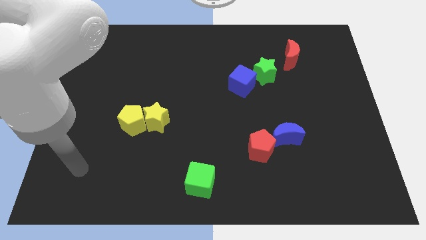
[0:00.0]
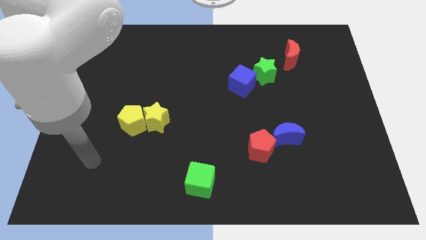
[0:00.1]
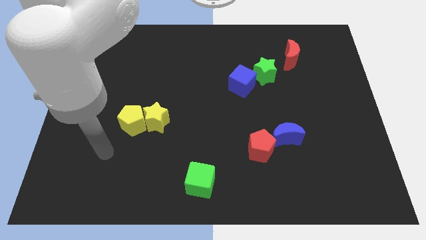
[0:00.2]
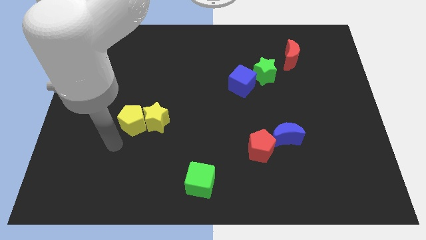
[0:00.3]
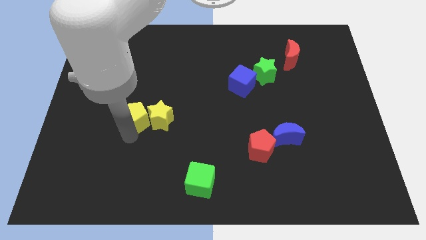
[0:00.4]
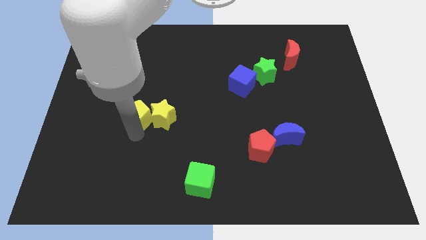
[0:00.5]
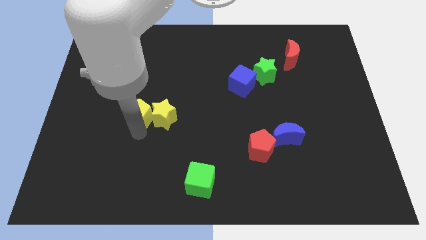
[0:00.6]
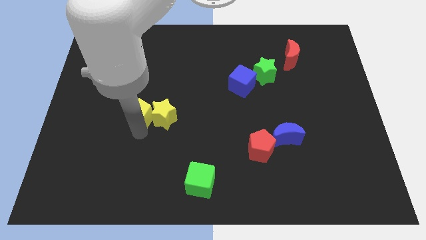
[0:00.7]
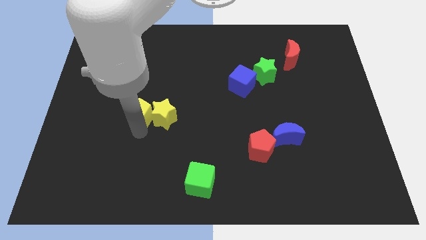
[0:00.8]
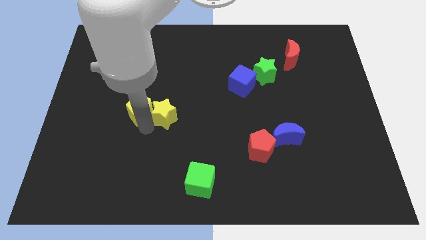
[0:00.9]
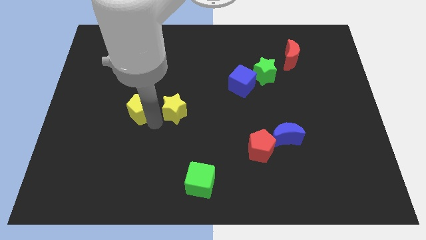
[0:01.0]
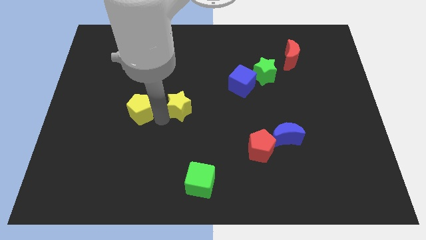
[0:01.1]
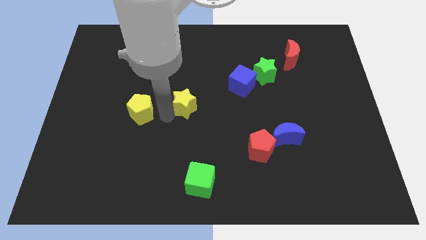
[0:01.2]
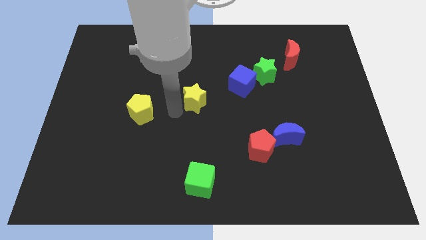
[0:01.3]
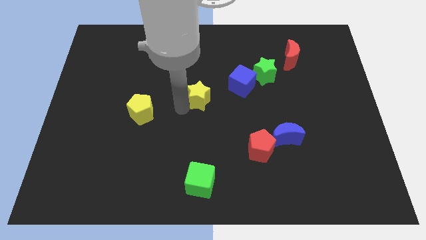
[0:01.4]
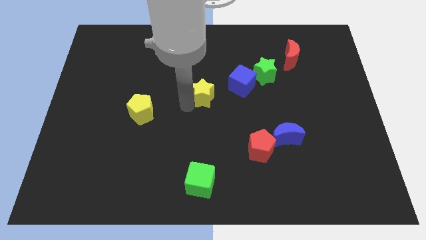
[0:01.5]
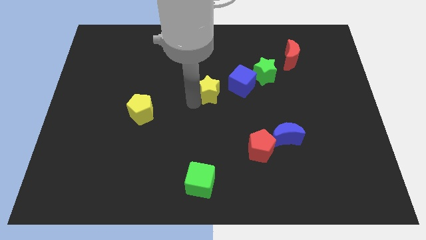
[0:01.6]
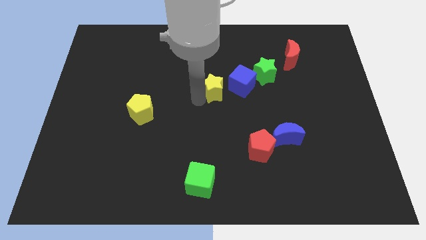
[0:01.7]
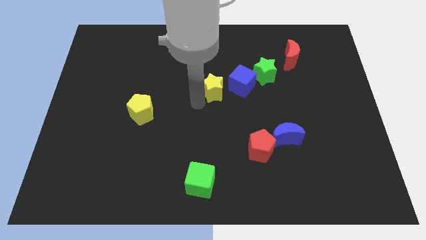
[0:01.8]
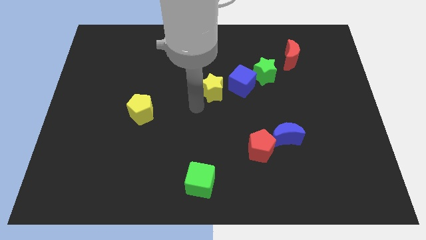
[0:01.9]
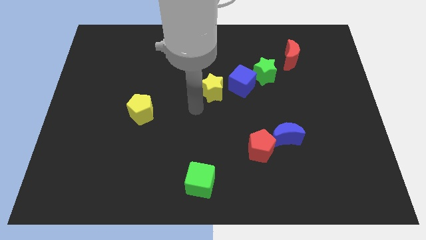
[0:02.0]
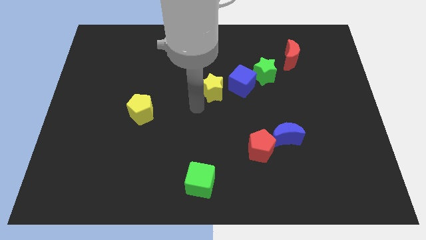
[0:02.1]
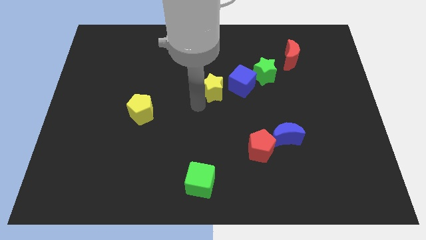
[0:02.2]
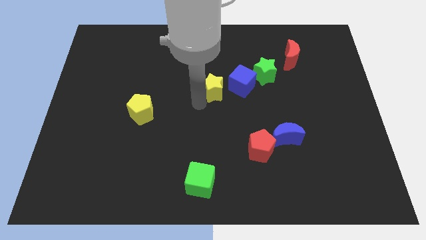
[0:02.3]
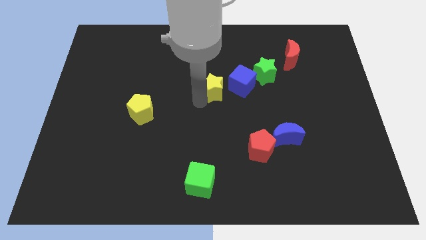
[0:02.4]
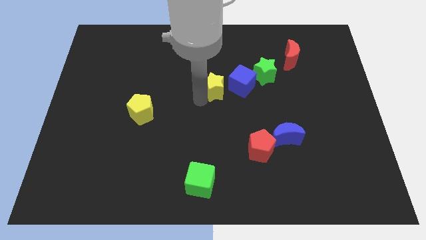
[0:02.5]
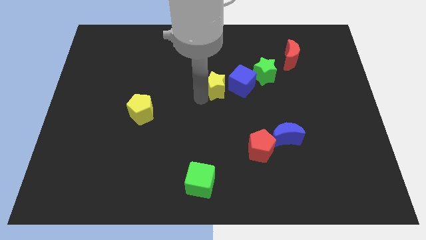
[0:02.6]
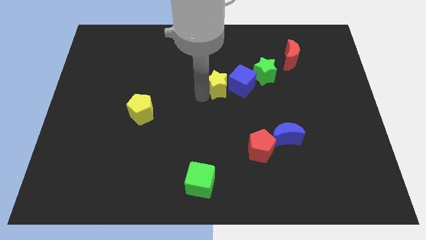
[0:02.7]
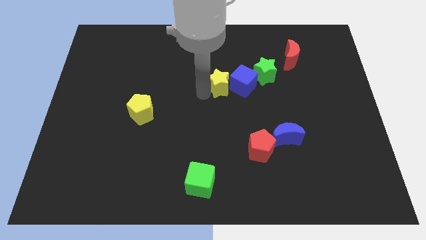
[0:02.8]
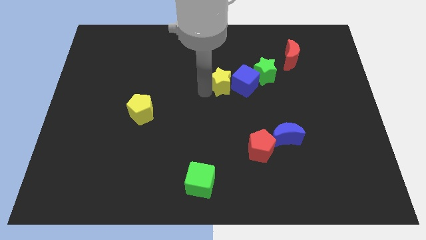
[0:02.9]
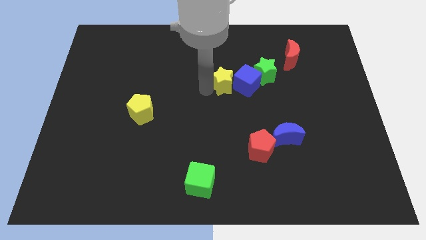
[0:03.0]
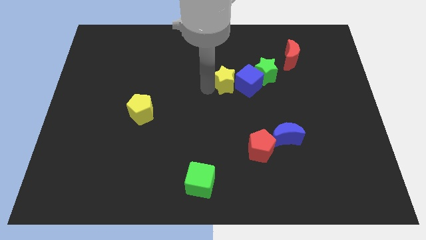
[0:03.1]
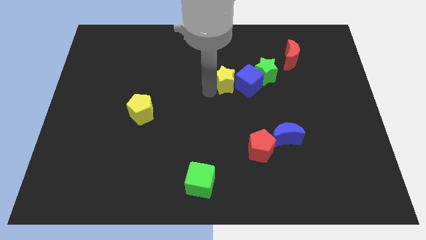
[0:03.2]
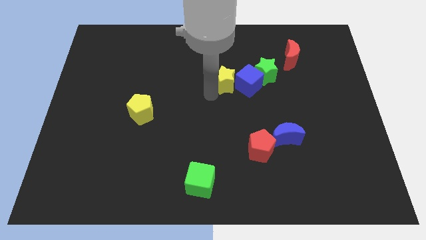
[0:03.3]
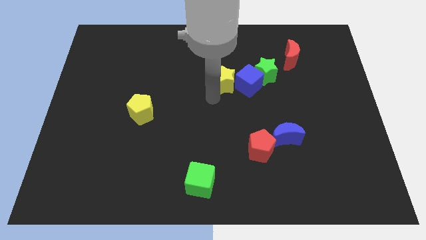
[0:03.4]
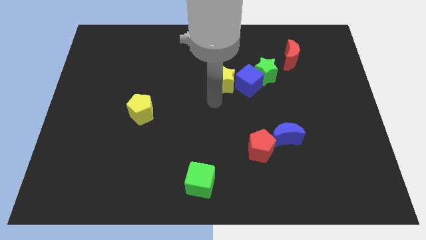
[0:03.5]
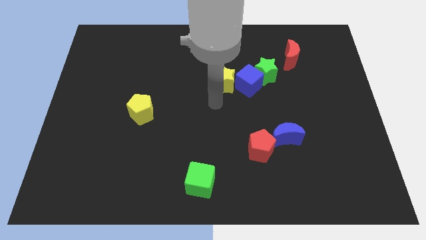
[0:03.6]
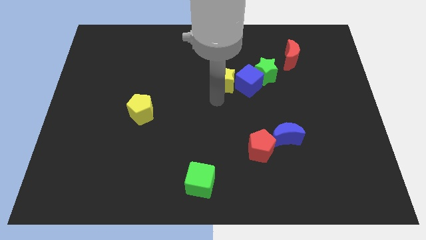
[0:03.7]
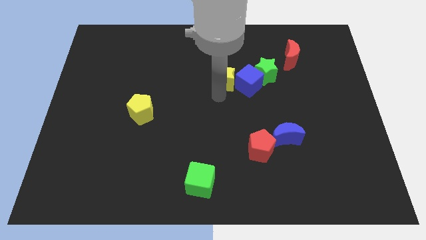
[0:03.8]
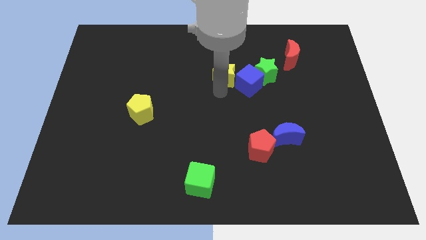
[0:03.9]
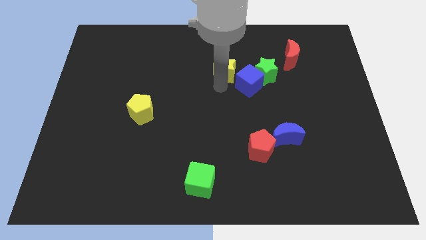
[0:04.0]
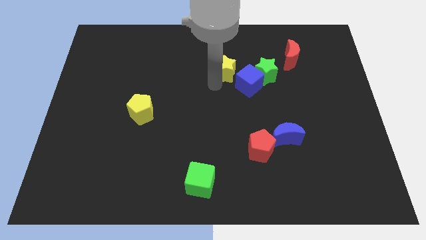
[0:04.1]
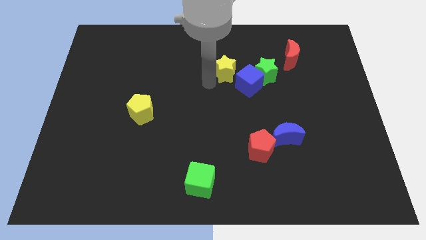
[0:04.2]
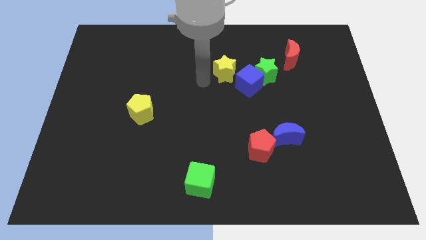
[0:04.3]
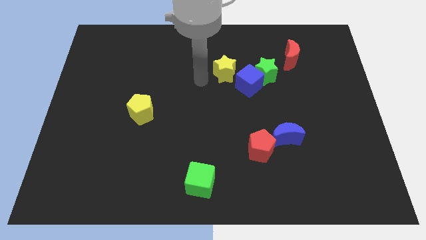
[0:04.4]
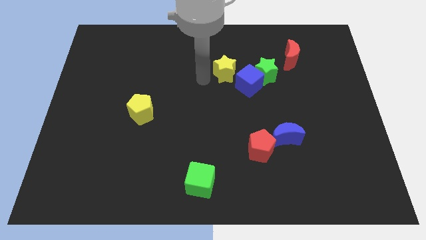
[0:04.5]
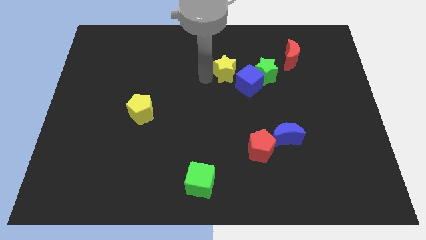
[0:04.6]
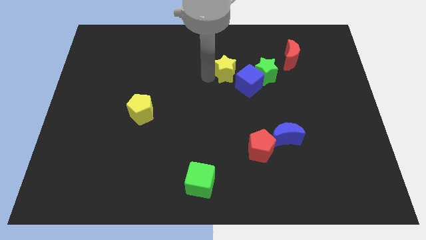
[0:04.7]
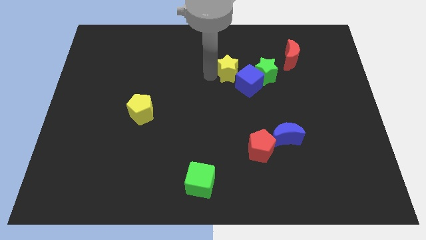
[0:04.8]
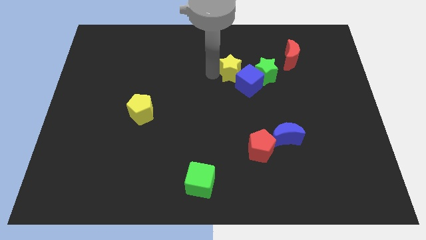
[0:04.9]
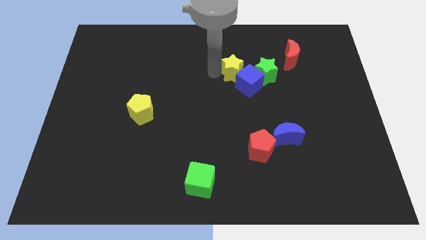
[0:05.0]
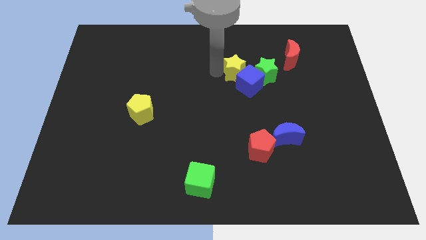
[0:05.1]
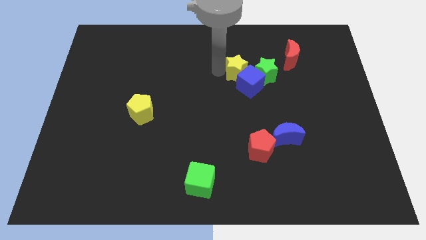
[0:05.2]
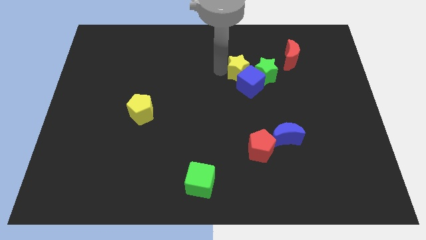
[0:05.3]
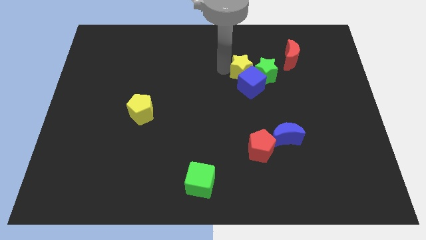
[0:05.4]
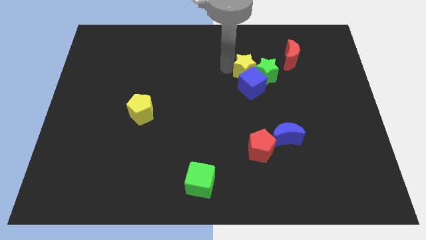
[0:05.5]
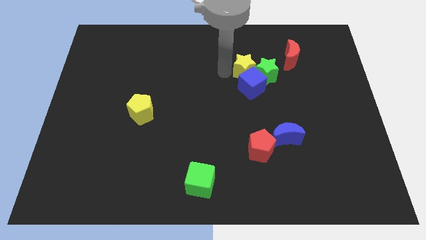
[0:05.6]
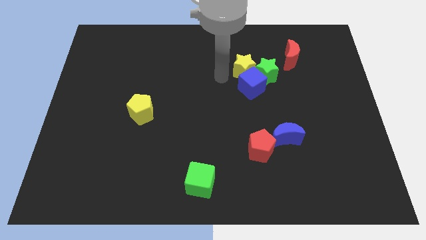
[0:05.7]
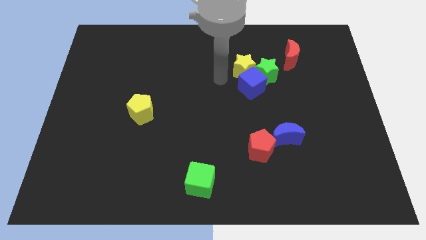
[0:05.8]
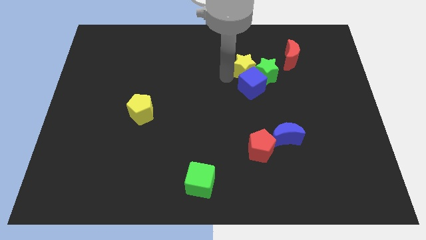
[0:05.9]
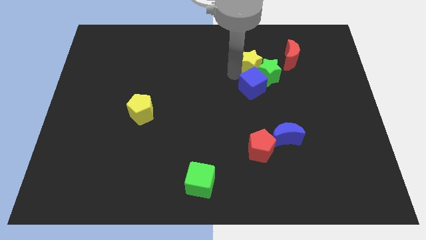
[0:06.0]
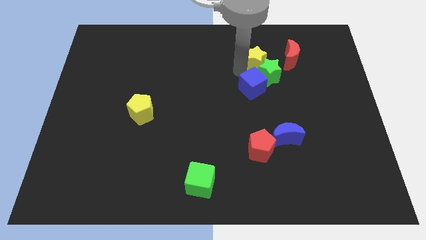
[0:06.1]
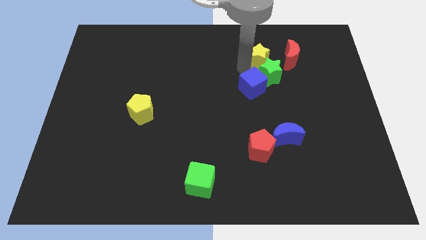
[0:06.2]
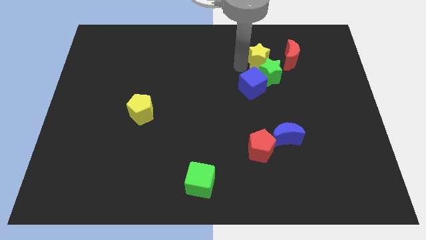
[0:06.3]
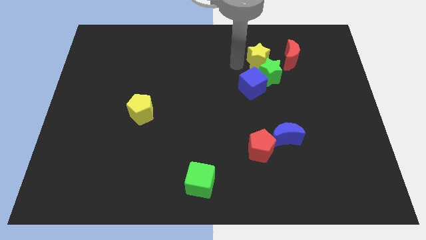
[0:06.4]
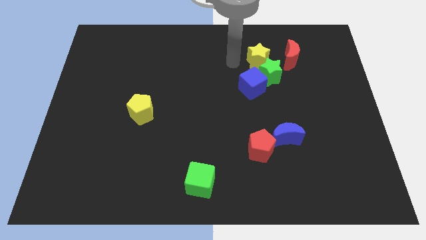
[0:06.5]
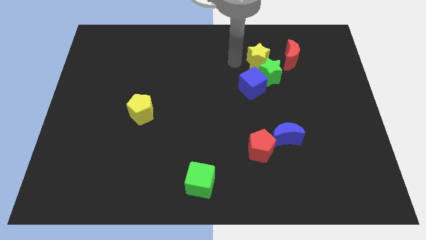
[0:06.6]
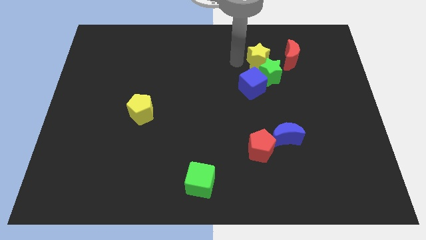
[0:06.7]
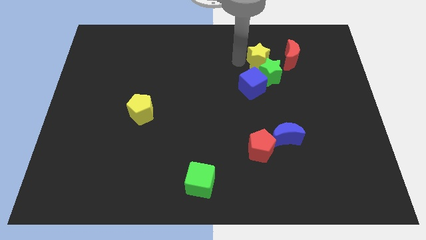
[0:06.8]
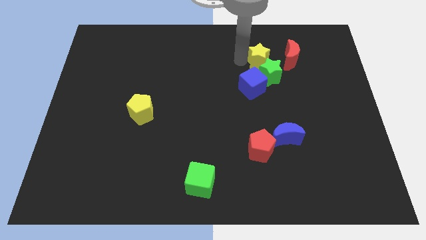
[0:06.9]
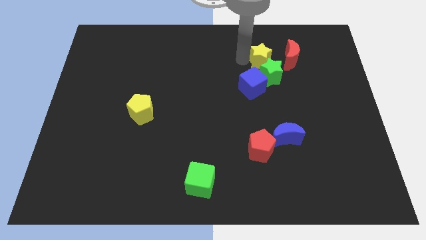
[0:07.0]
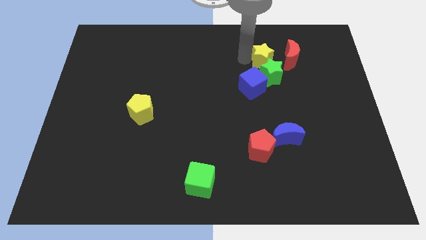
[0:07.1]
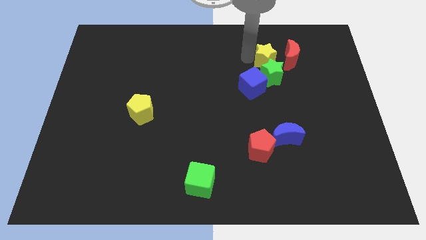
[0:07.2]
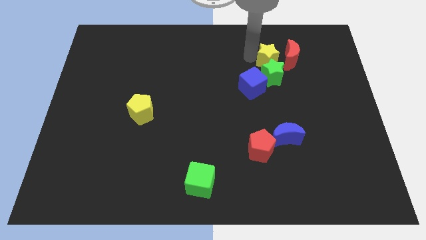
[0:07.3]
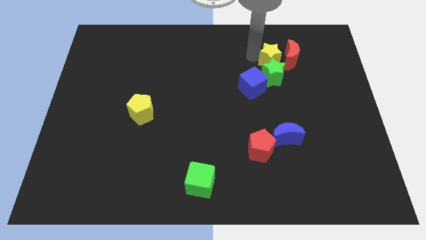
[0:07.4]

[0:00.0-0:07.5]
move the yellow star next to the red moon
